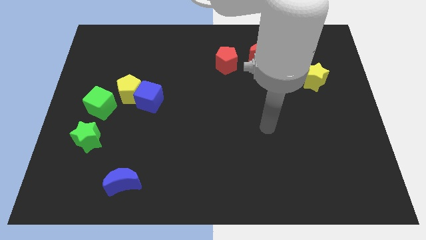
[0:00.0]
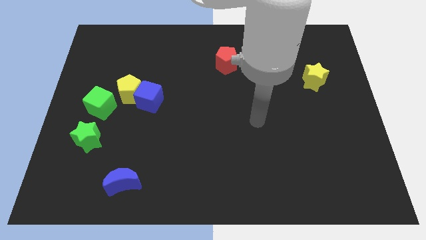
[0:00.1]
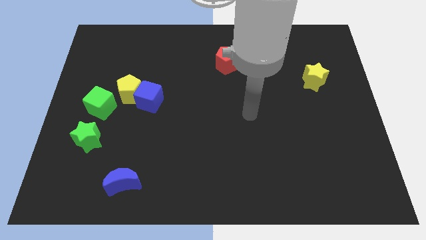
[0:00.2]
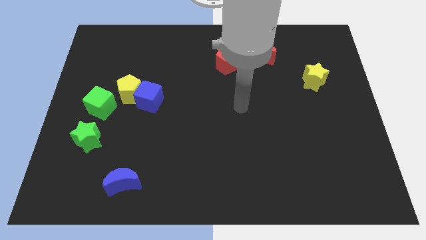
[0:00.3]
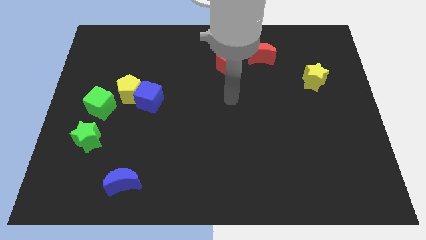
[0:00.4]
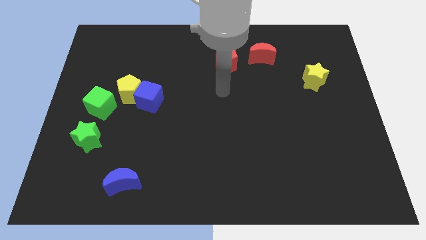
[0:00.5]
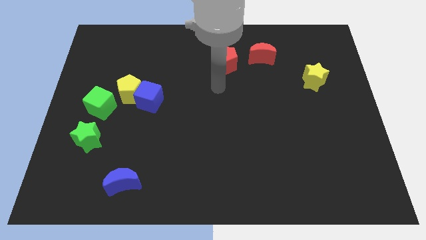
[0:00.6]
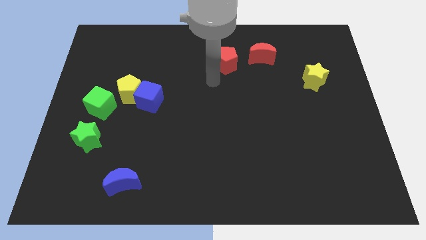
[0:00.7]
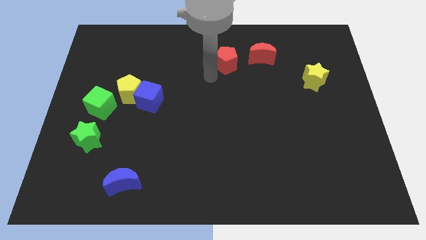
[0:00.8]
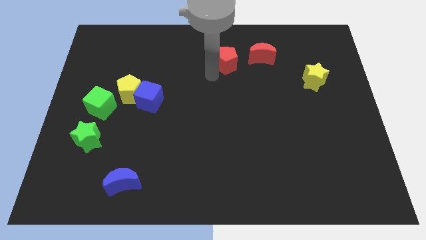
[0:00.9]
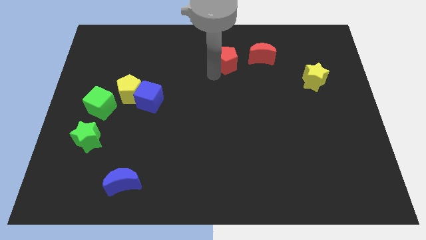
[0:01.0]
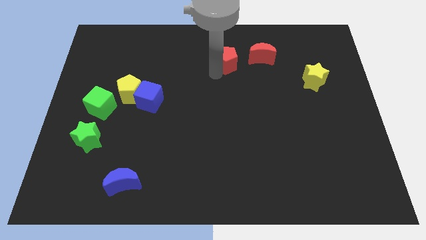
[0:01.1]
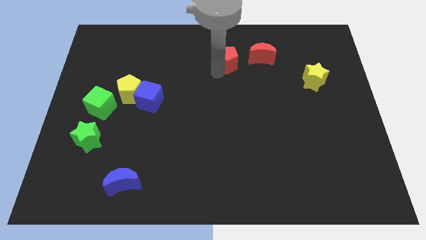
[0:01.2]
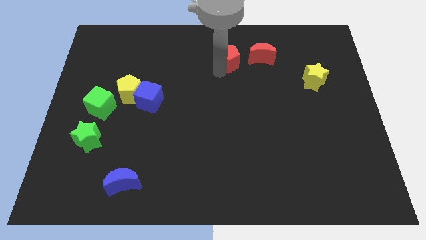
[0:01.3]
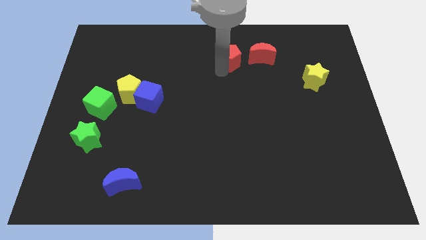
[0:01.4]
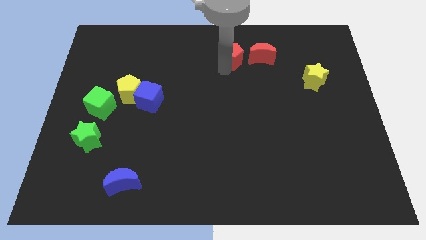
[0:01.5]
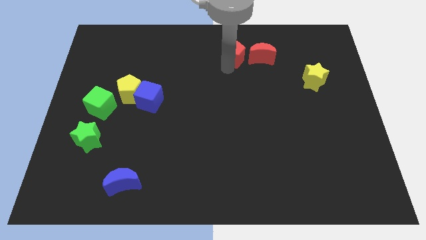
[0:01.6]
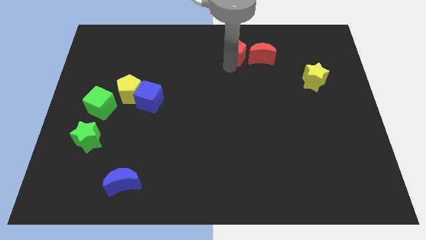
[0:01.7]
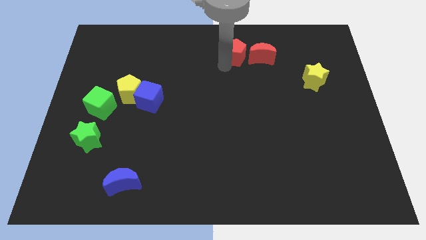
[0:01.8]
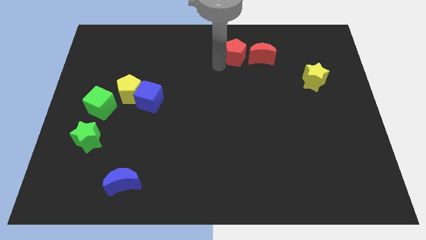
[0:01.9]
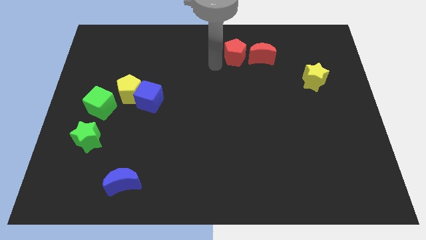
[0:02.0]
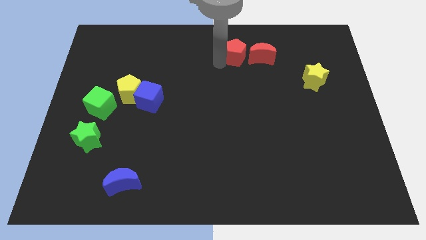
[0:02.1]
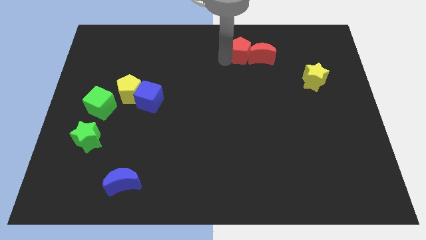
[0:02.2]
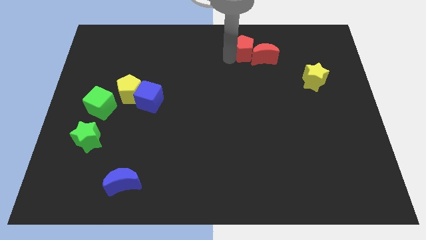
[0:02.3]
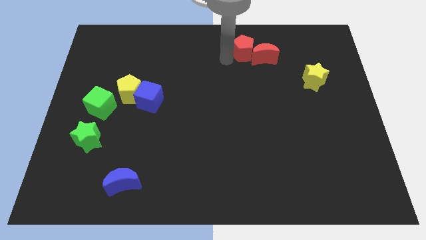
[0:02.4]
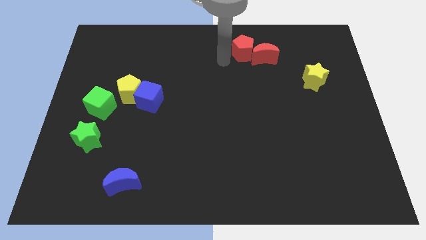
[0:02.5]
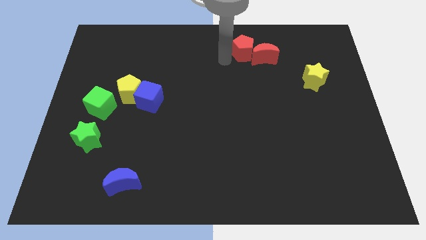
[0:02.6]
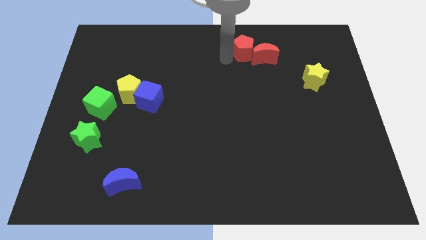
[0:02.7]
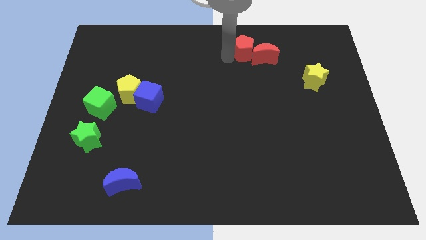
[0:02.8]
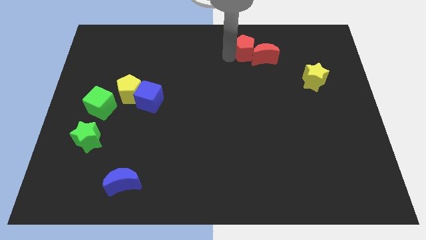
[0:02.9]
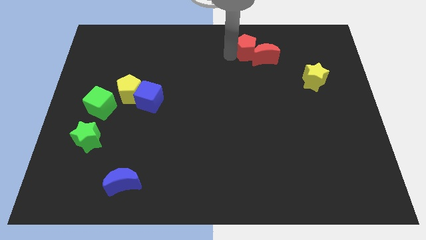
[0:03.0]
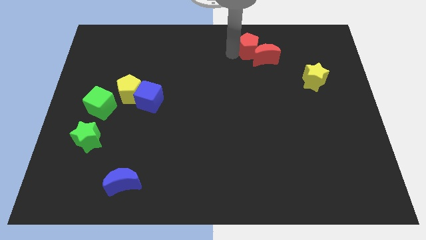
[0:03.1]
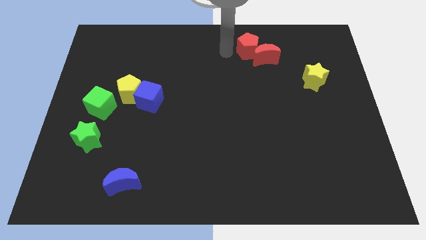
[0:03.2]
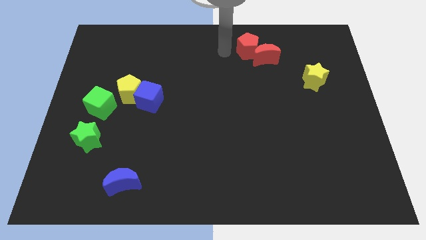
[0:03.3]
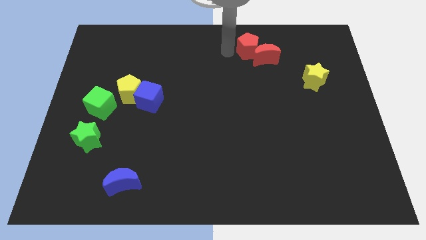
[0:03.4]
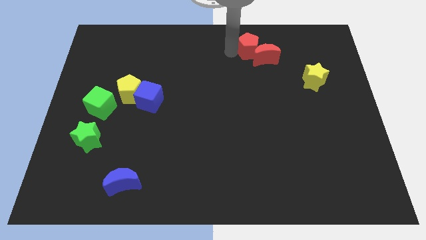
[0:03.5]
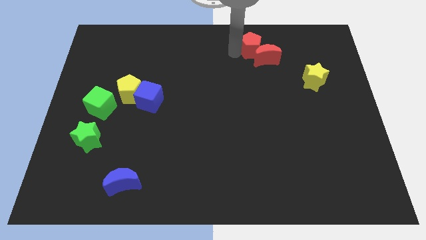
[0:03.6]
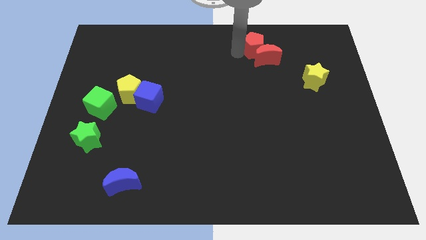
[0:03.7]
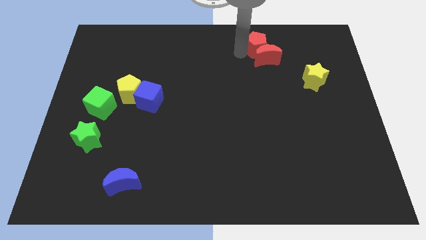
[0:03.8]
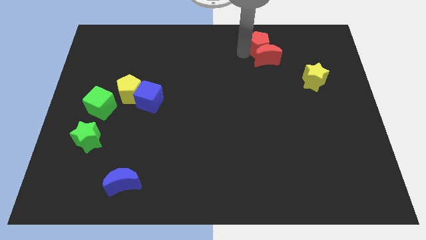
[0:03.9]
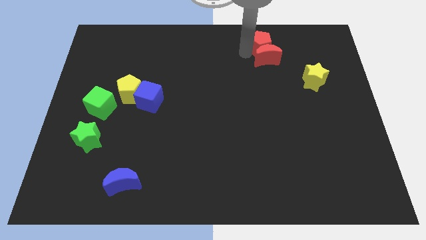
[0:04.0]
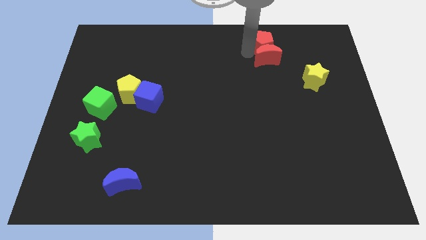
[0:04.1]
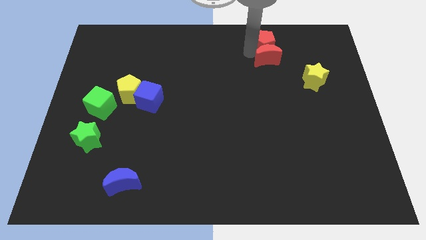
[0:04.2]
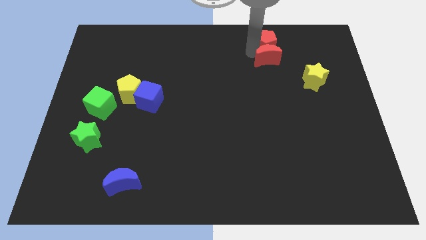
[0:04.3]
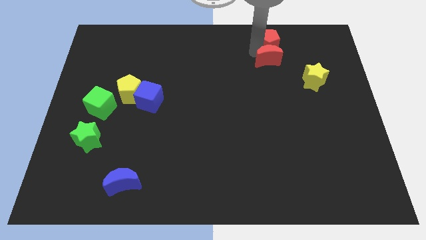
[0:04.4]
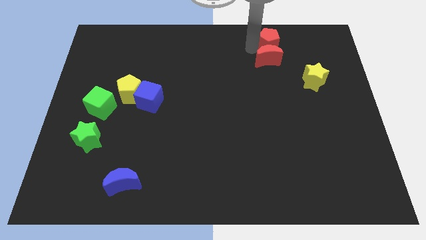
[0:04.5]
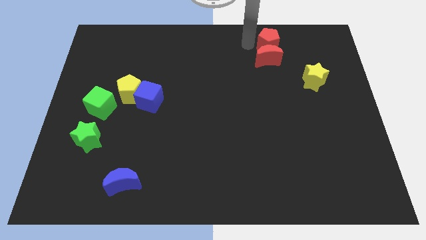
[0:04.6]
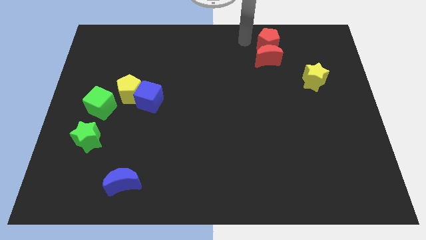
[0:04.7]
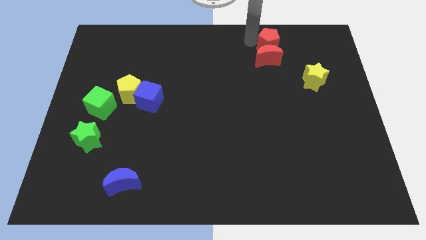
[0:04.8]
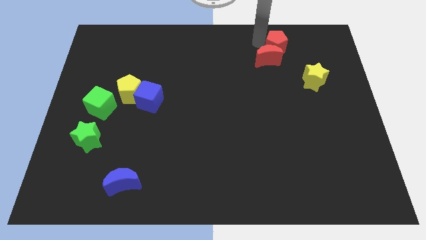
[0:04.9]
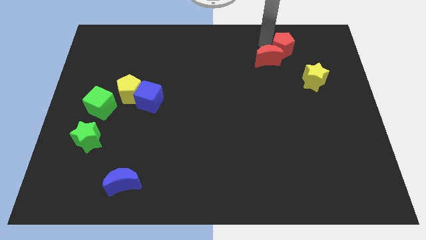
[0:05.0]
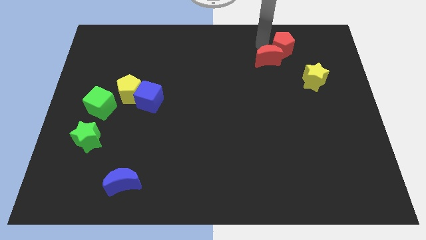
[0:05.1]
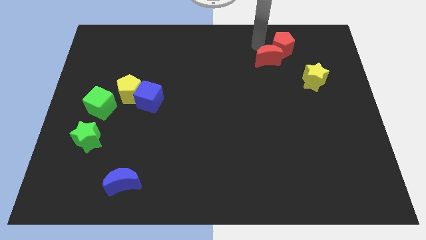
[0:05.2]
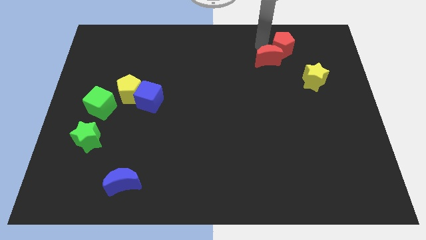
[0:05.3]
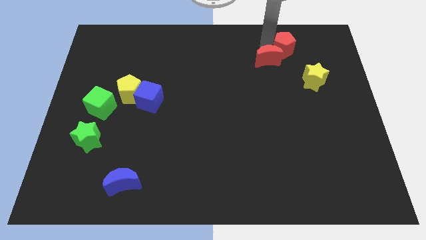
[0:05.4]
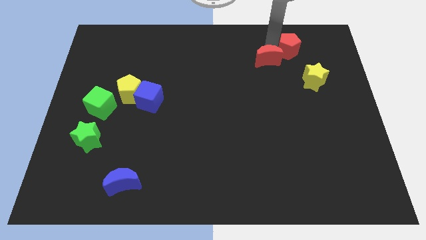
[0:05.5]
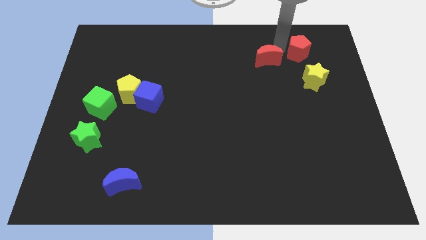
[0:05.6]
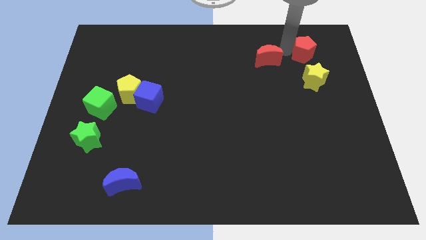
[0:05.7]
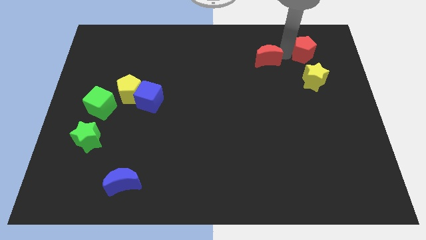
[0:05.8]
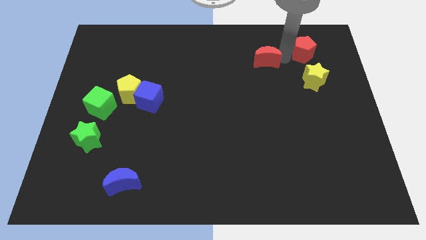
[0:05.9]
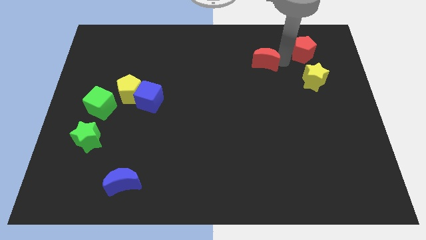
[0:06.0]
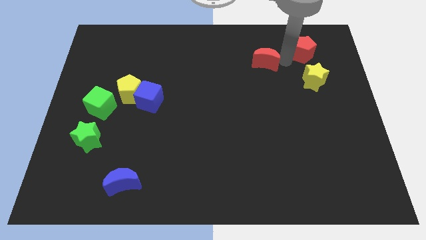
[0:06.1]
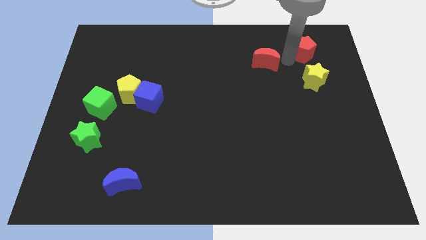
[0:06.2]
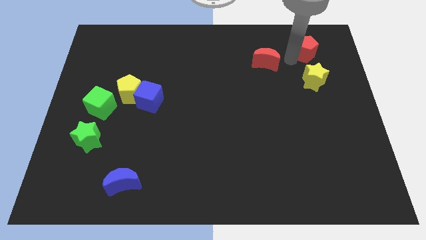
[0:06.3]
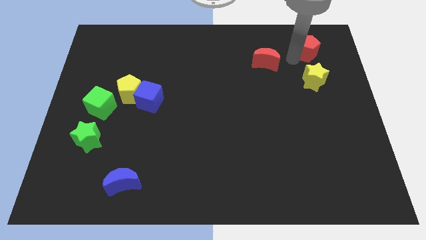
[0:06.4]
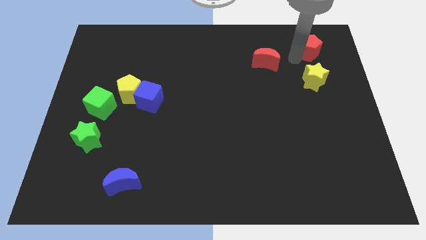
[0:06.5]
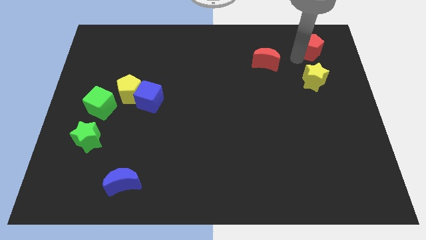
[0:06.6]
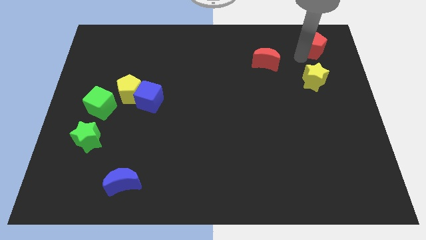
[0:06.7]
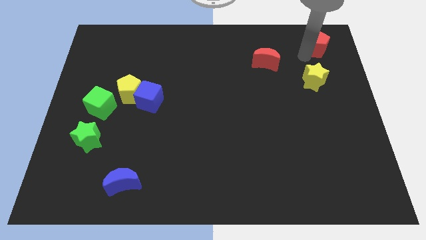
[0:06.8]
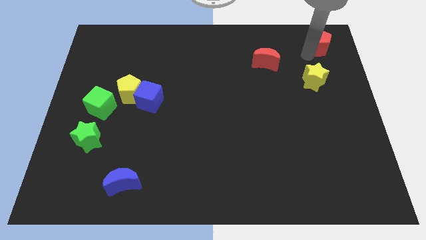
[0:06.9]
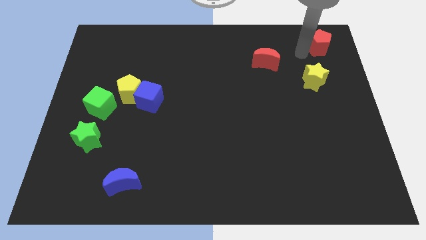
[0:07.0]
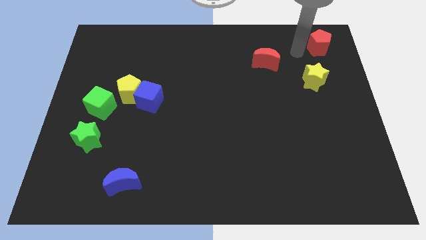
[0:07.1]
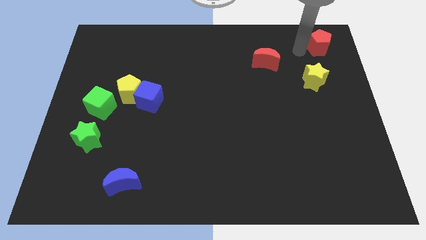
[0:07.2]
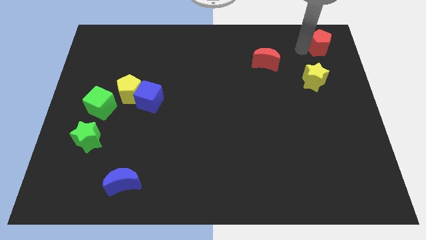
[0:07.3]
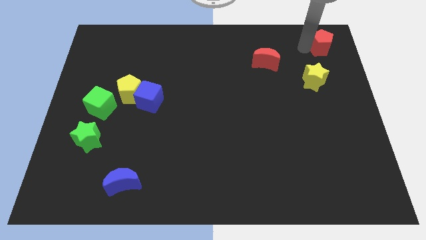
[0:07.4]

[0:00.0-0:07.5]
put the red pentagon to the top right of the board
